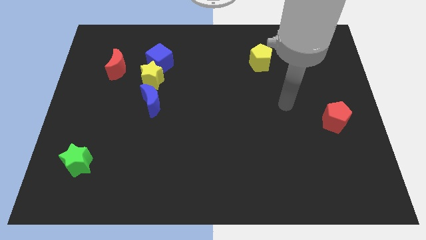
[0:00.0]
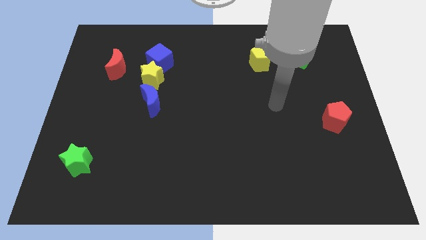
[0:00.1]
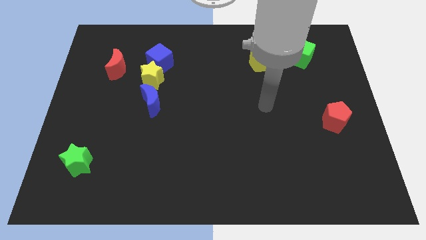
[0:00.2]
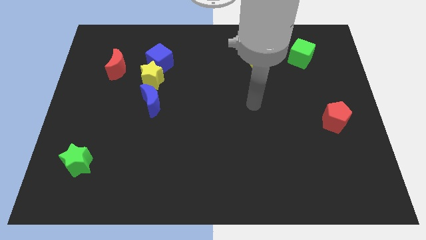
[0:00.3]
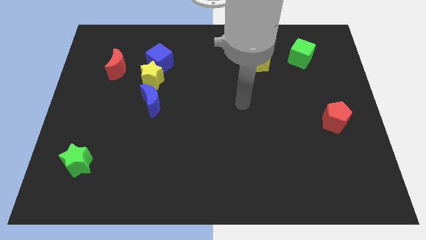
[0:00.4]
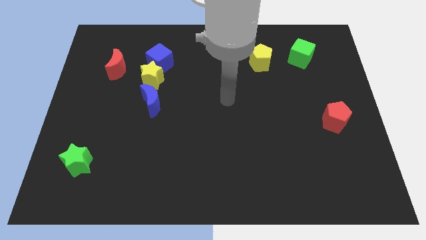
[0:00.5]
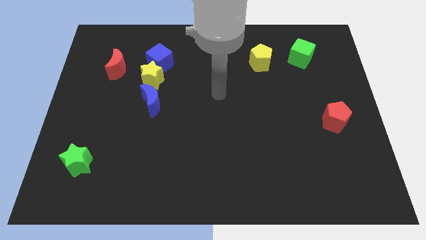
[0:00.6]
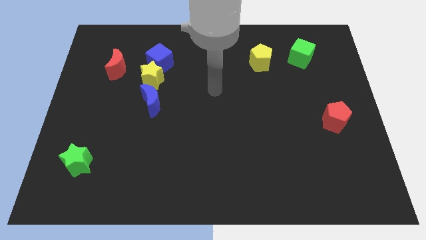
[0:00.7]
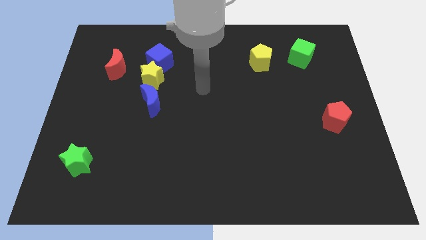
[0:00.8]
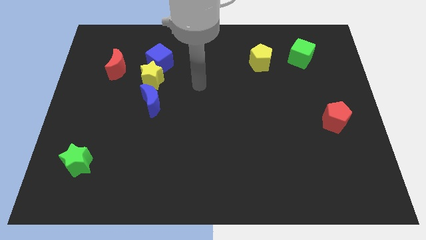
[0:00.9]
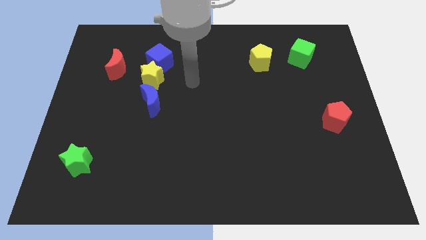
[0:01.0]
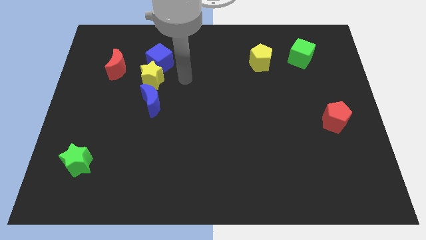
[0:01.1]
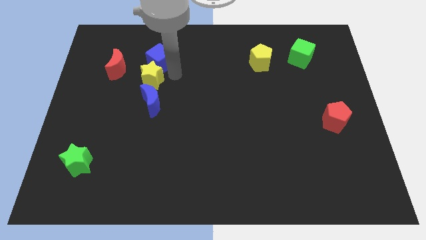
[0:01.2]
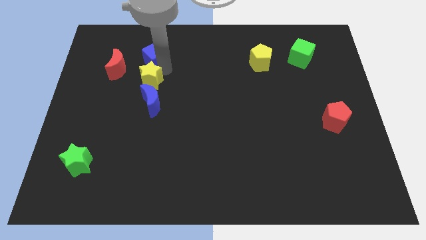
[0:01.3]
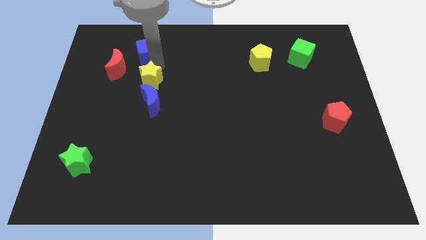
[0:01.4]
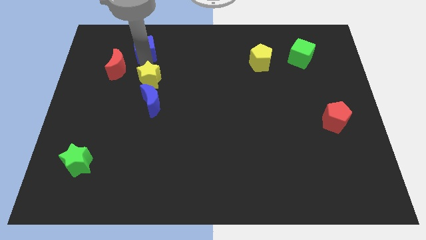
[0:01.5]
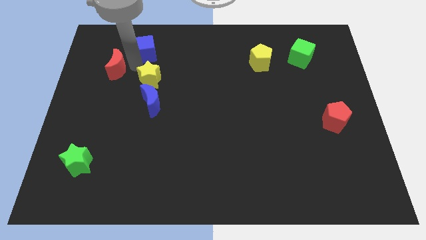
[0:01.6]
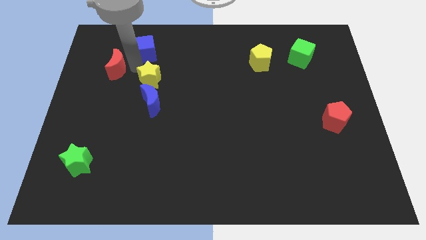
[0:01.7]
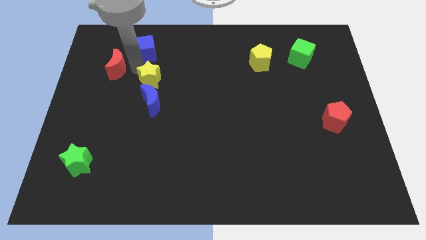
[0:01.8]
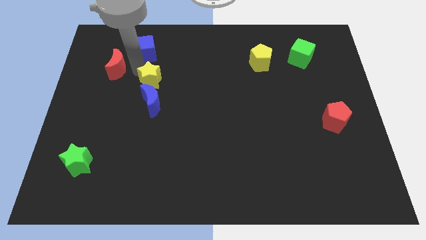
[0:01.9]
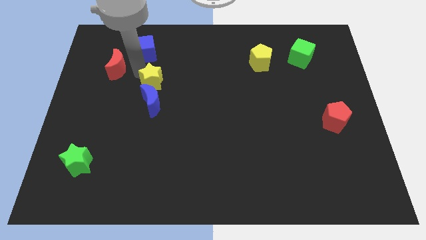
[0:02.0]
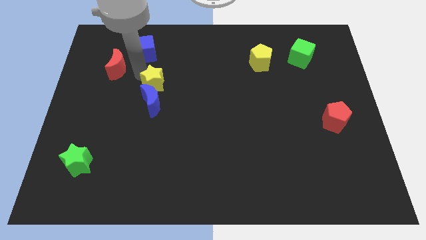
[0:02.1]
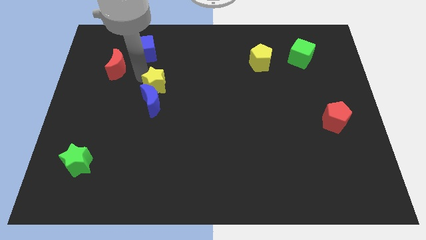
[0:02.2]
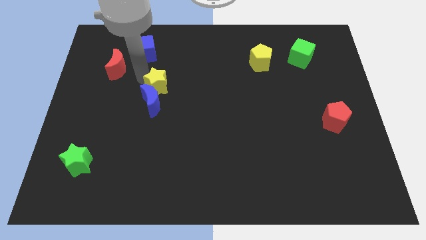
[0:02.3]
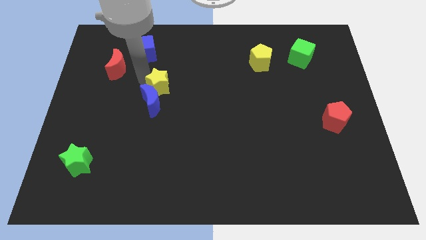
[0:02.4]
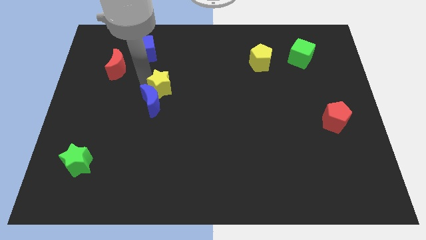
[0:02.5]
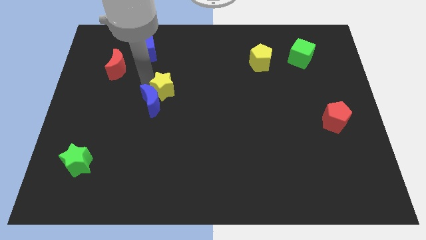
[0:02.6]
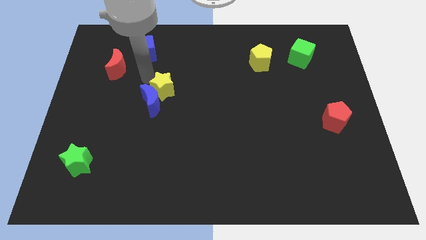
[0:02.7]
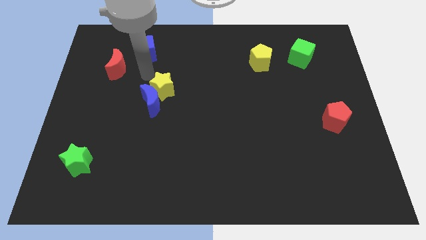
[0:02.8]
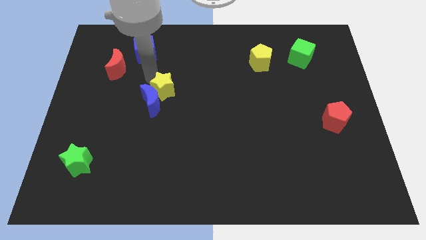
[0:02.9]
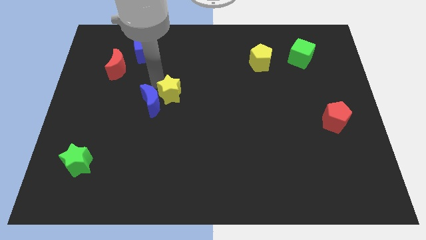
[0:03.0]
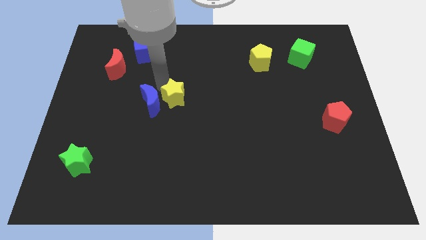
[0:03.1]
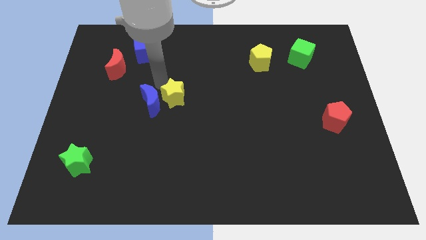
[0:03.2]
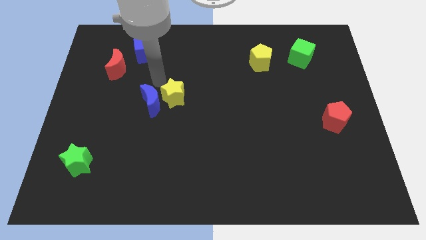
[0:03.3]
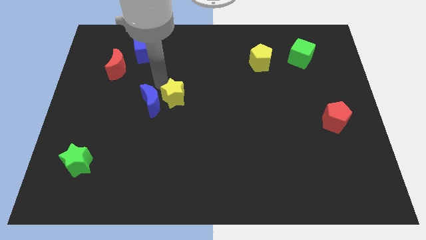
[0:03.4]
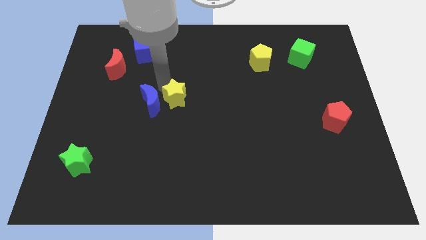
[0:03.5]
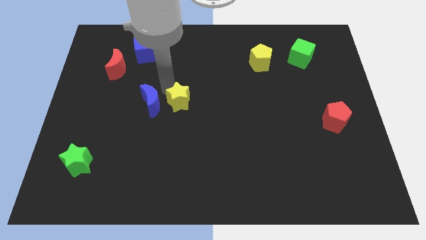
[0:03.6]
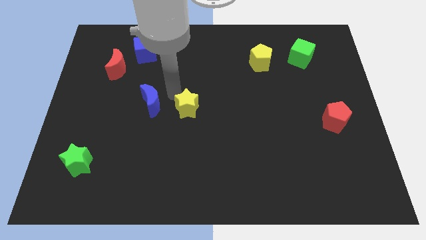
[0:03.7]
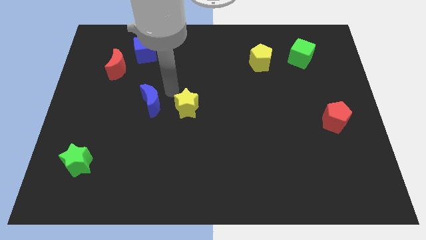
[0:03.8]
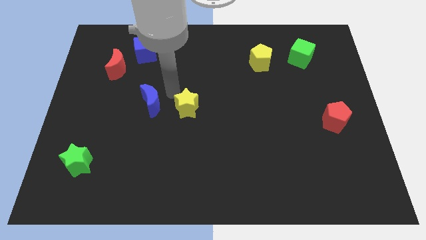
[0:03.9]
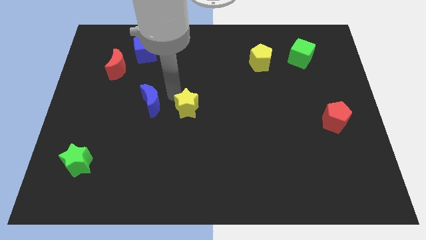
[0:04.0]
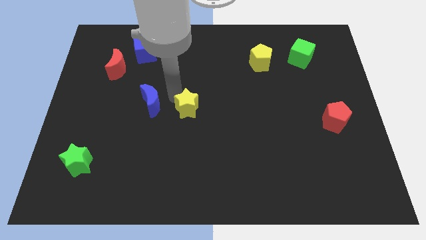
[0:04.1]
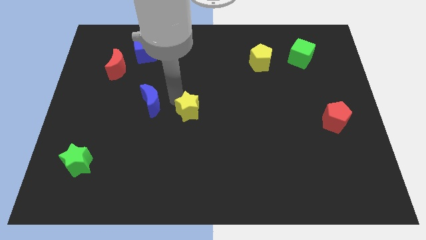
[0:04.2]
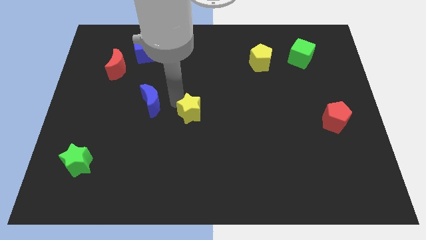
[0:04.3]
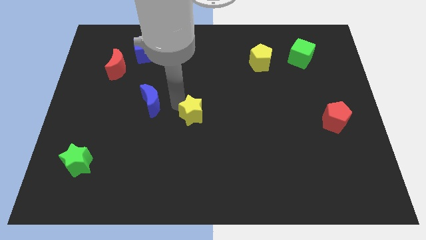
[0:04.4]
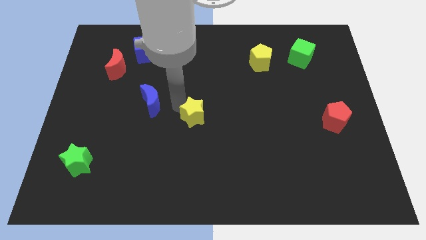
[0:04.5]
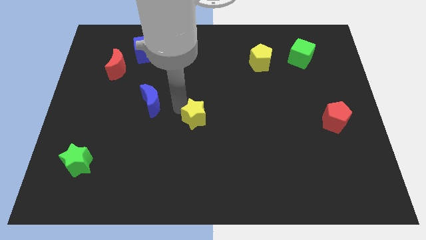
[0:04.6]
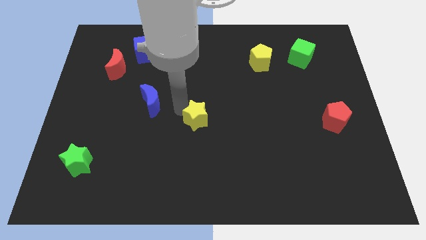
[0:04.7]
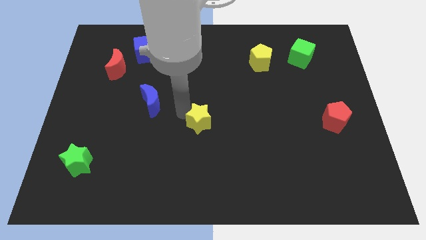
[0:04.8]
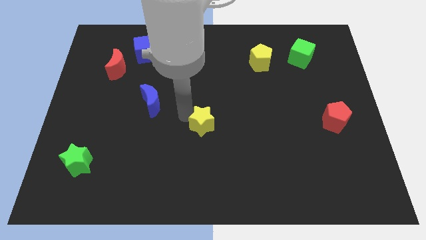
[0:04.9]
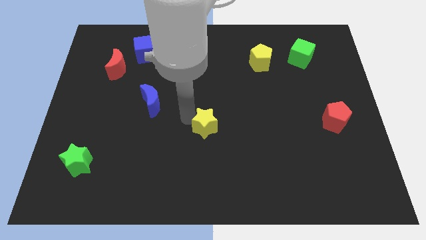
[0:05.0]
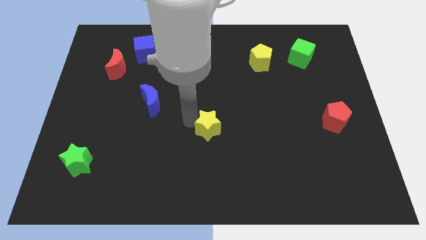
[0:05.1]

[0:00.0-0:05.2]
move the yellow star diagonally down and to the right

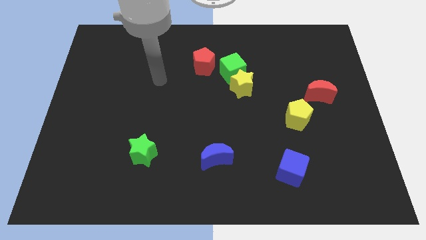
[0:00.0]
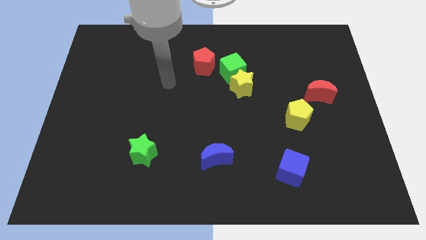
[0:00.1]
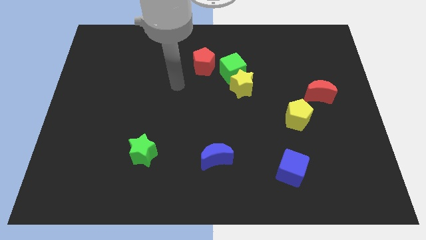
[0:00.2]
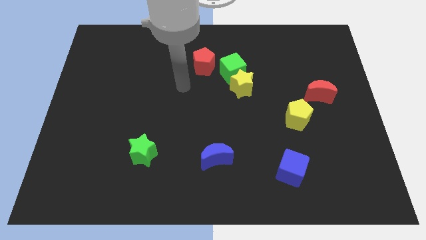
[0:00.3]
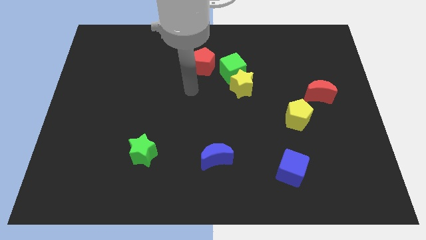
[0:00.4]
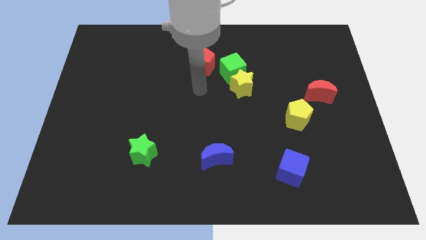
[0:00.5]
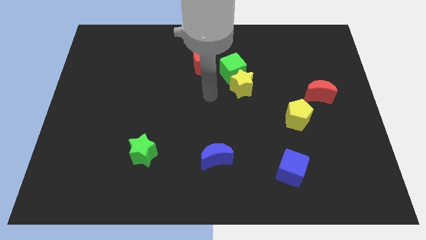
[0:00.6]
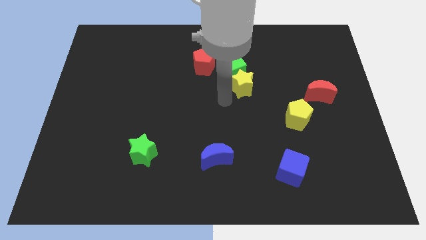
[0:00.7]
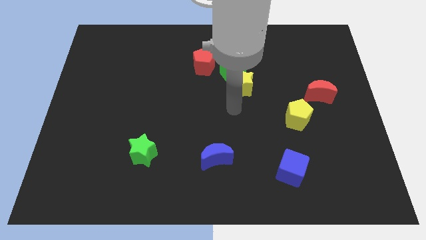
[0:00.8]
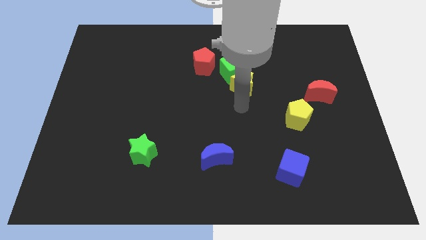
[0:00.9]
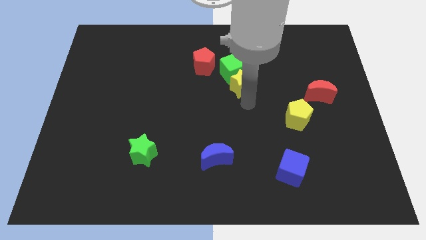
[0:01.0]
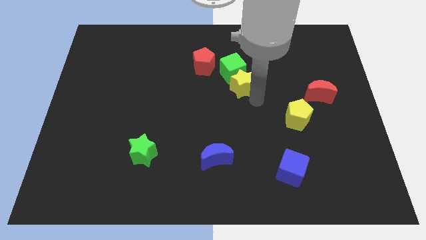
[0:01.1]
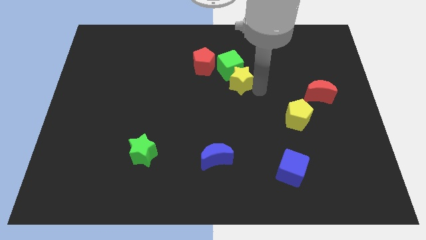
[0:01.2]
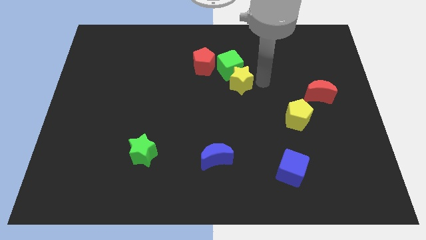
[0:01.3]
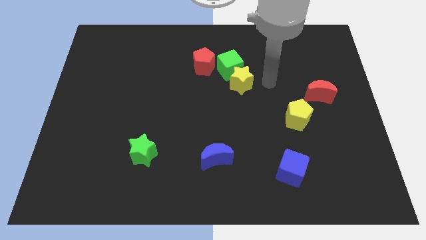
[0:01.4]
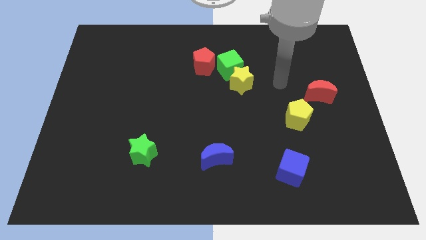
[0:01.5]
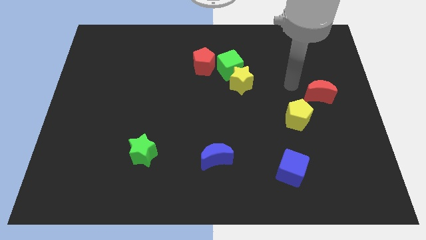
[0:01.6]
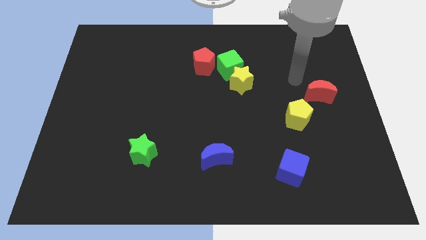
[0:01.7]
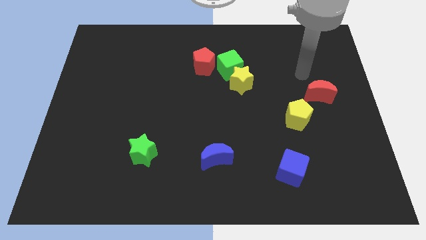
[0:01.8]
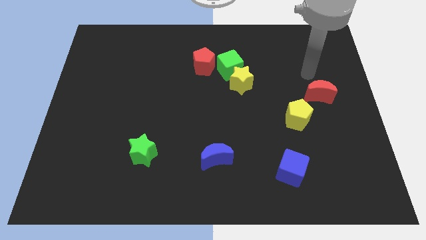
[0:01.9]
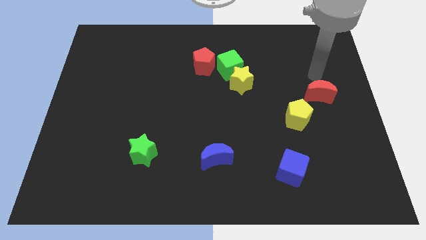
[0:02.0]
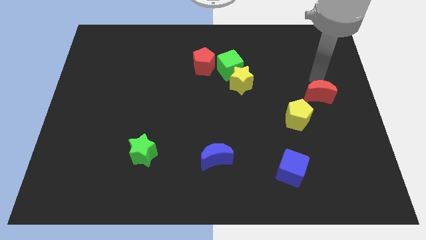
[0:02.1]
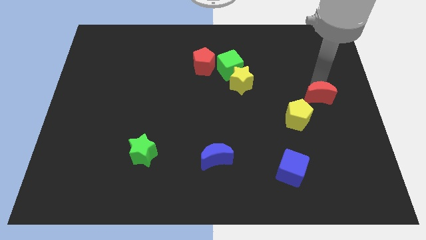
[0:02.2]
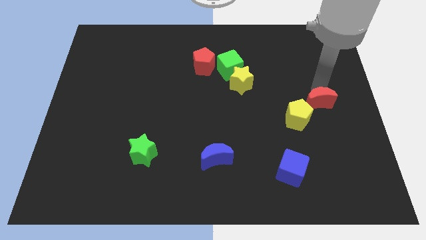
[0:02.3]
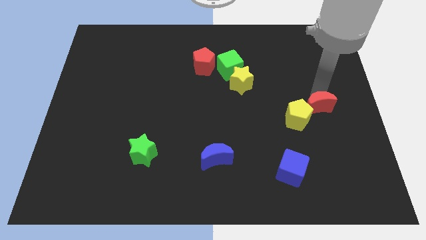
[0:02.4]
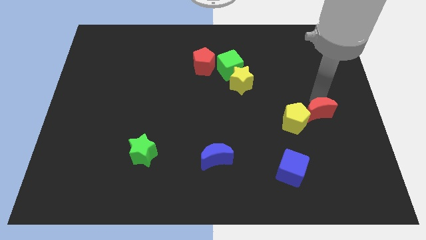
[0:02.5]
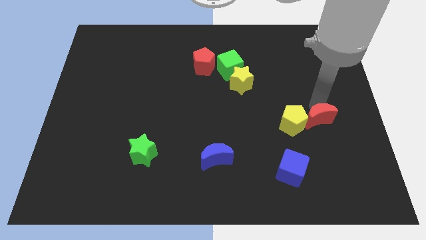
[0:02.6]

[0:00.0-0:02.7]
push the red moon a bit down

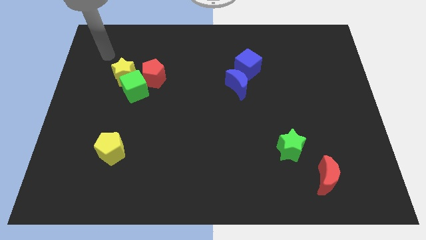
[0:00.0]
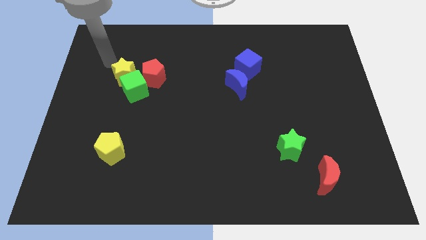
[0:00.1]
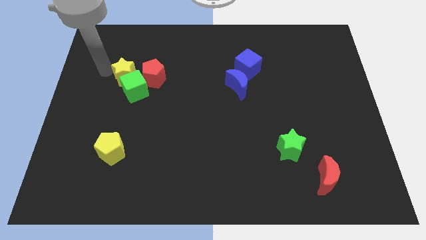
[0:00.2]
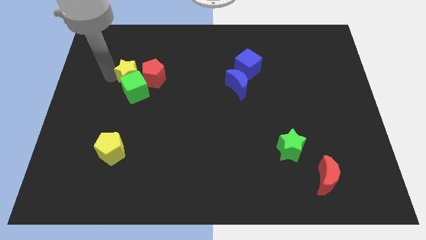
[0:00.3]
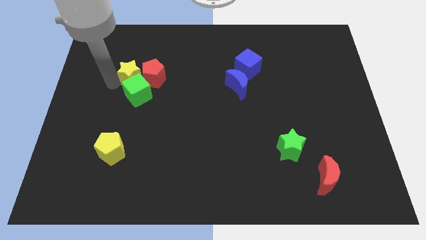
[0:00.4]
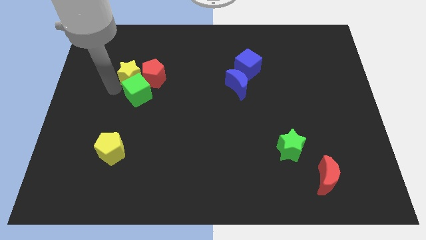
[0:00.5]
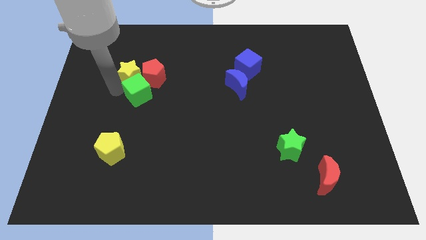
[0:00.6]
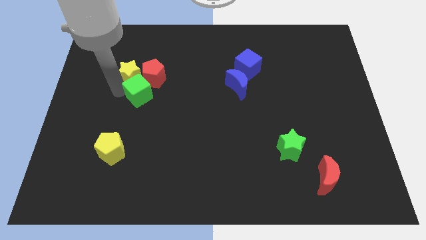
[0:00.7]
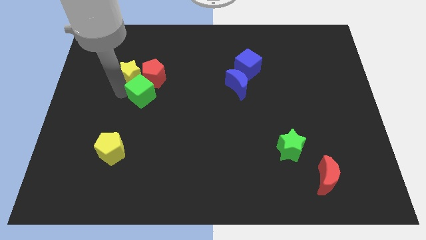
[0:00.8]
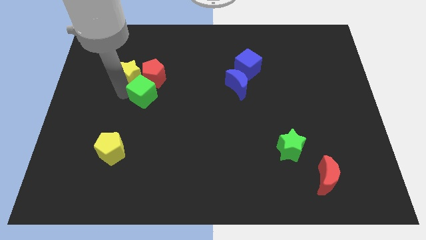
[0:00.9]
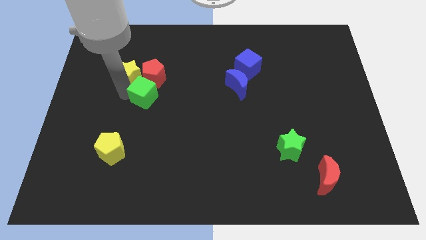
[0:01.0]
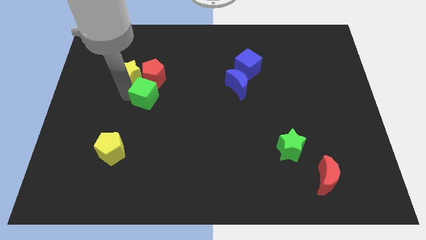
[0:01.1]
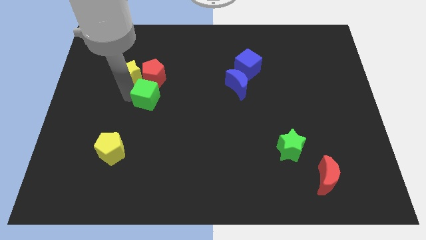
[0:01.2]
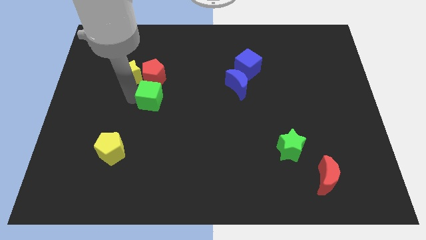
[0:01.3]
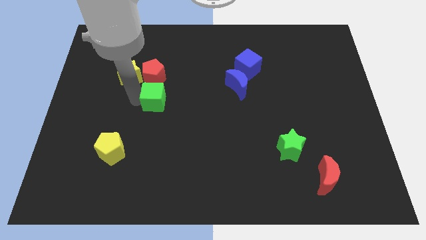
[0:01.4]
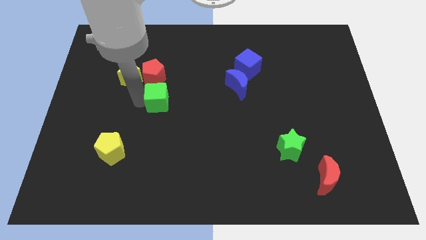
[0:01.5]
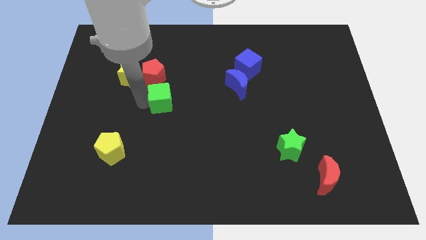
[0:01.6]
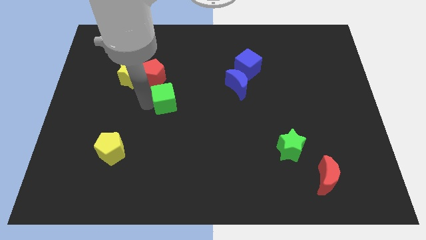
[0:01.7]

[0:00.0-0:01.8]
slightly slide the green cube to the right
